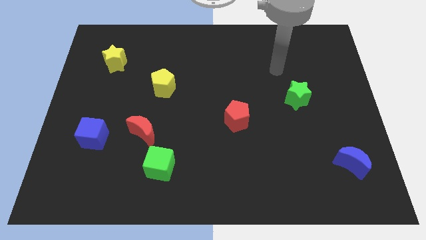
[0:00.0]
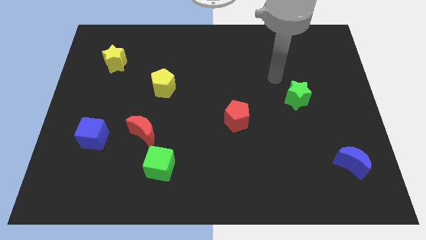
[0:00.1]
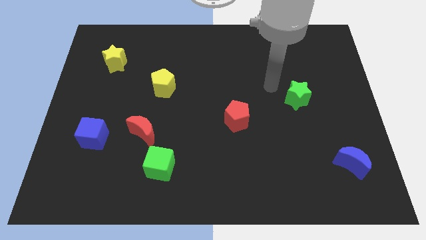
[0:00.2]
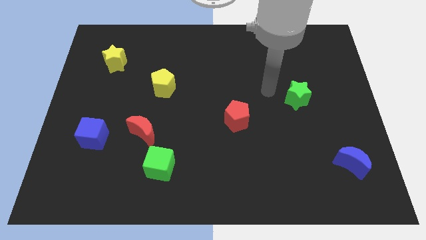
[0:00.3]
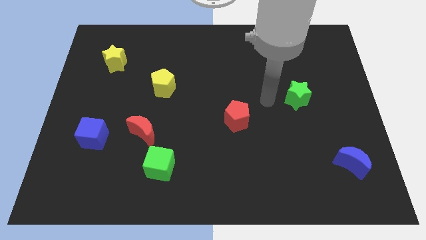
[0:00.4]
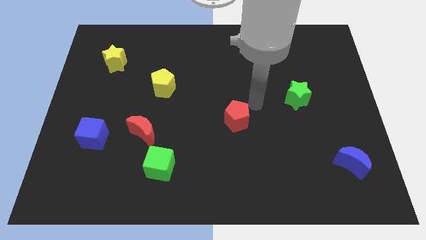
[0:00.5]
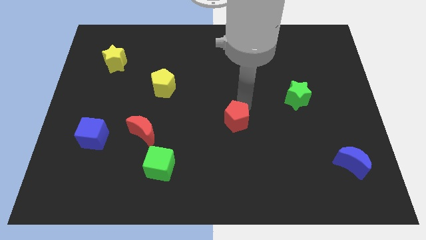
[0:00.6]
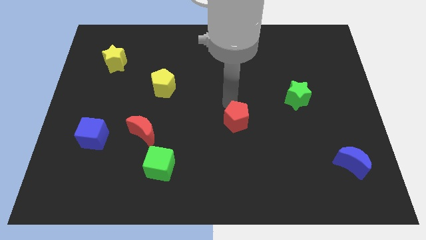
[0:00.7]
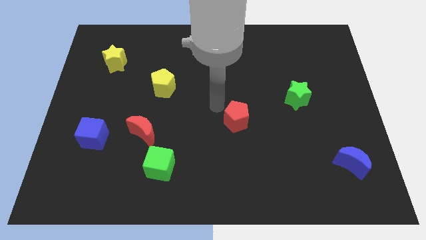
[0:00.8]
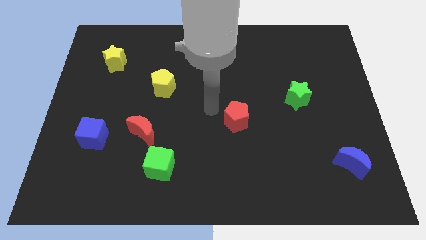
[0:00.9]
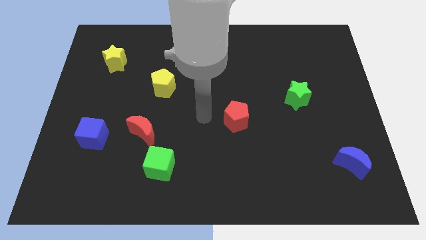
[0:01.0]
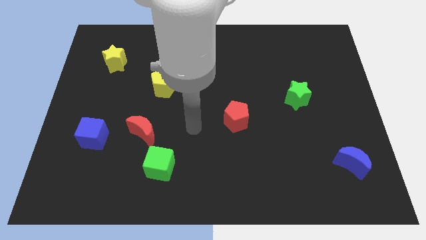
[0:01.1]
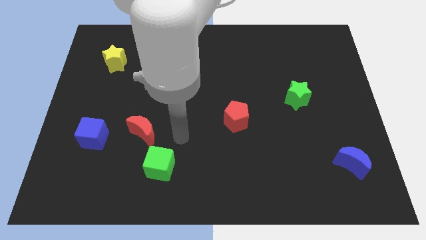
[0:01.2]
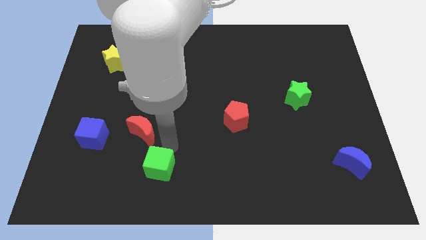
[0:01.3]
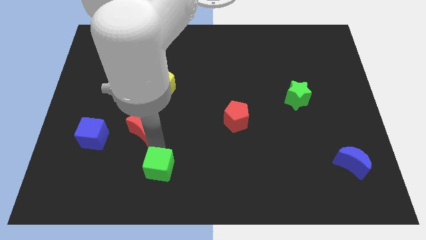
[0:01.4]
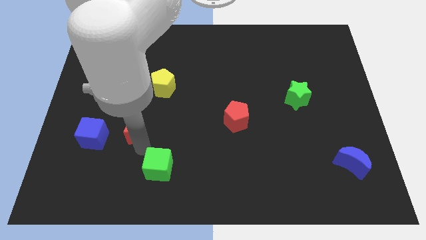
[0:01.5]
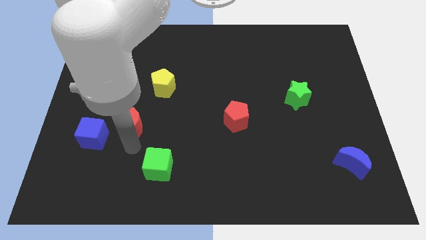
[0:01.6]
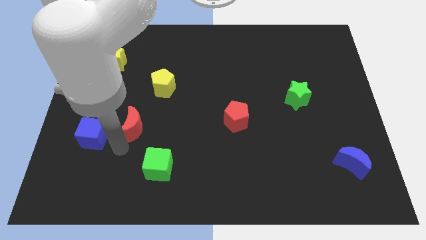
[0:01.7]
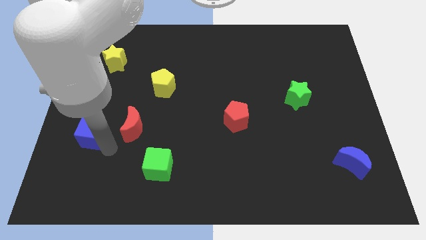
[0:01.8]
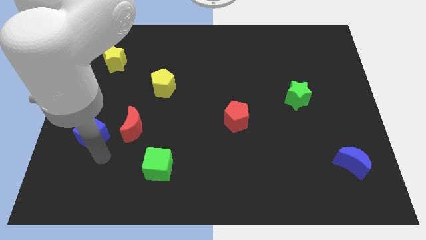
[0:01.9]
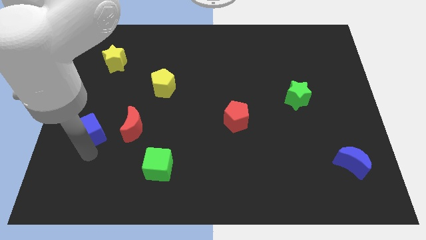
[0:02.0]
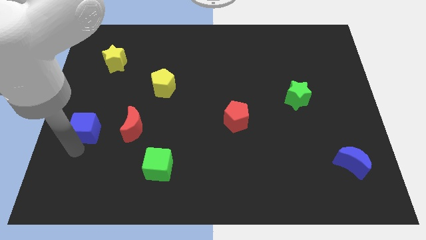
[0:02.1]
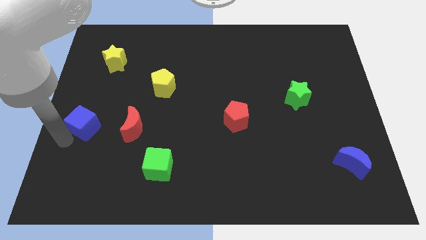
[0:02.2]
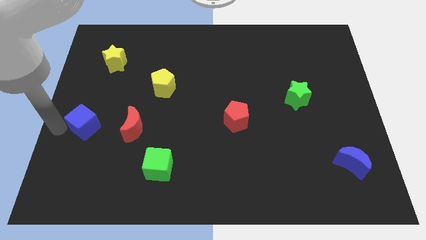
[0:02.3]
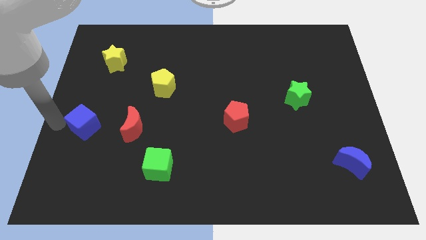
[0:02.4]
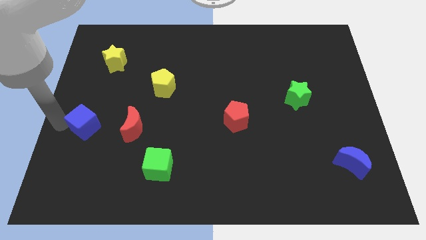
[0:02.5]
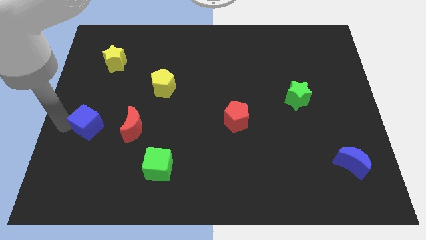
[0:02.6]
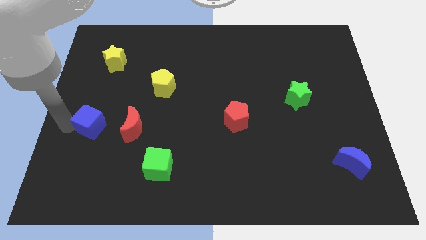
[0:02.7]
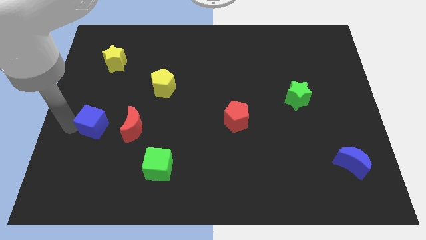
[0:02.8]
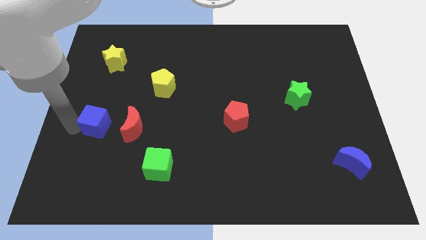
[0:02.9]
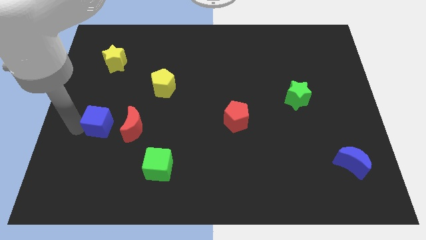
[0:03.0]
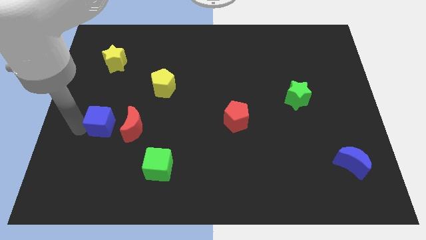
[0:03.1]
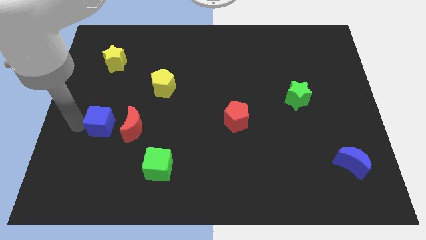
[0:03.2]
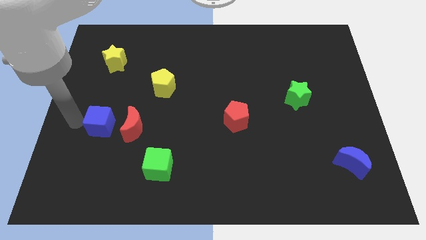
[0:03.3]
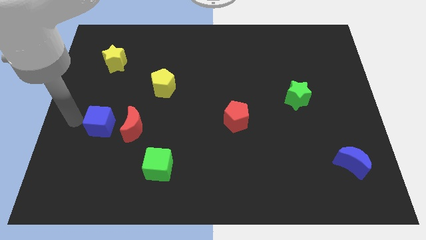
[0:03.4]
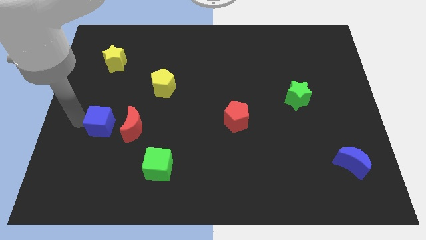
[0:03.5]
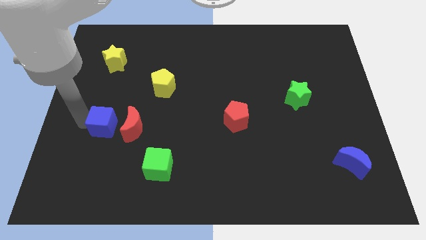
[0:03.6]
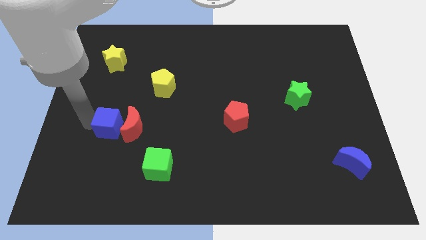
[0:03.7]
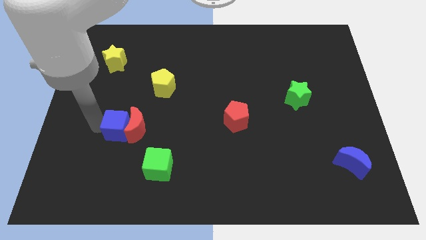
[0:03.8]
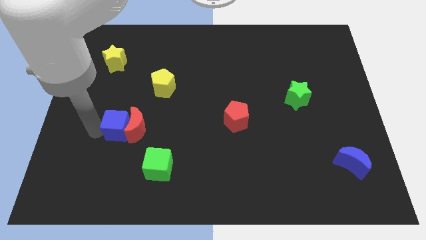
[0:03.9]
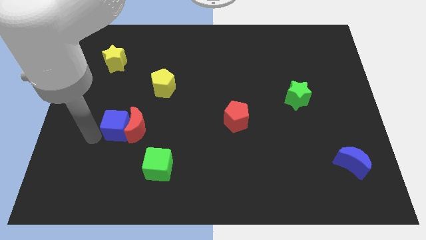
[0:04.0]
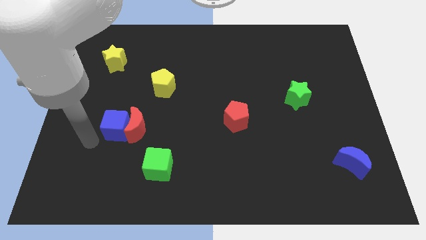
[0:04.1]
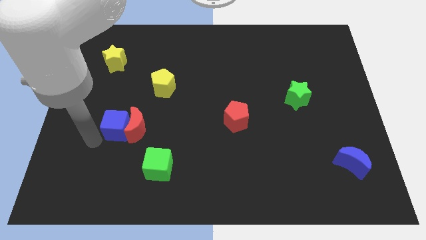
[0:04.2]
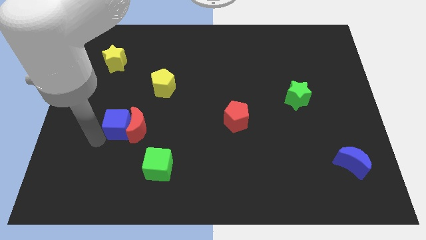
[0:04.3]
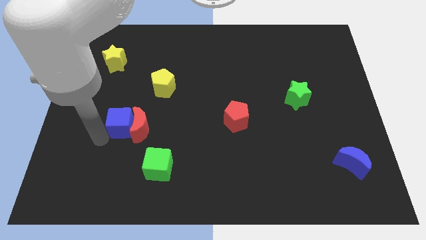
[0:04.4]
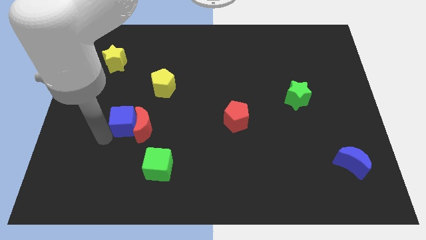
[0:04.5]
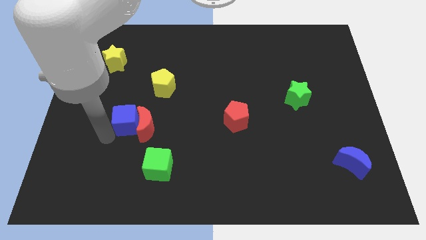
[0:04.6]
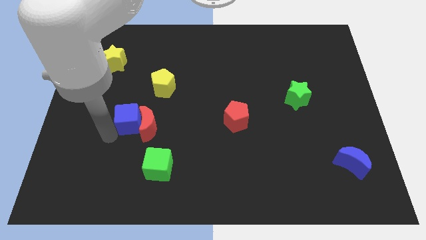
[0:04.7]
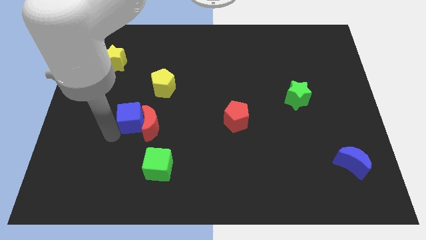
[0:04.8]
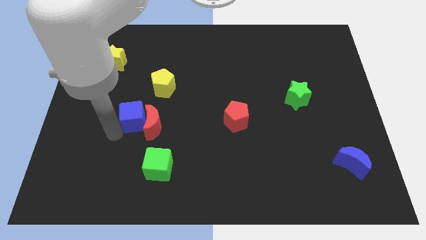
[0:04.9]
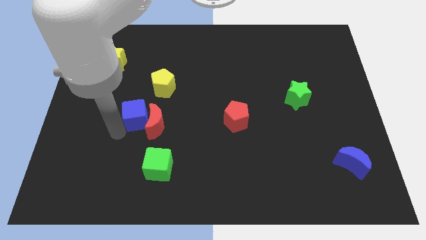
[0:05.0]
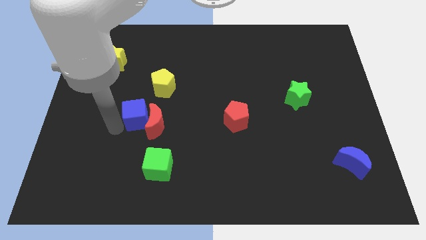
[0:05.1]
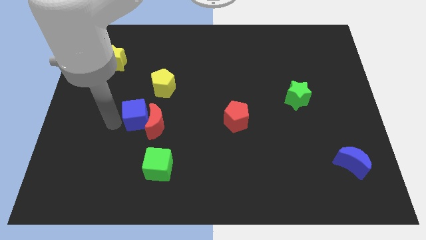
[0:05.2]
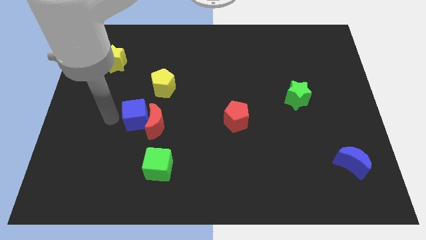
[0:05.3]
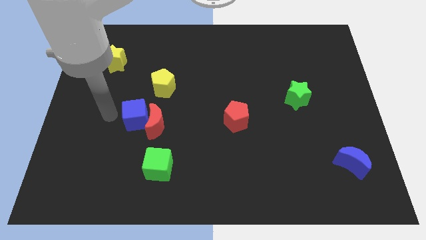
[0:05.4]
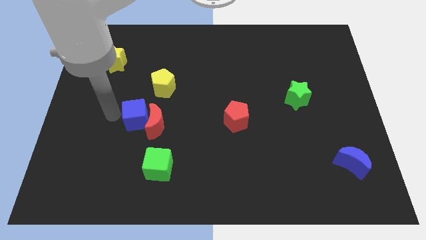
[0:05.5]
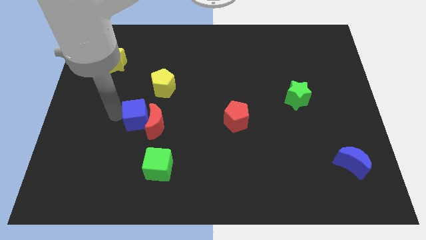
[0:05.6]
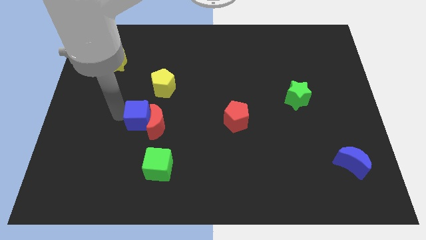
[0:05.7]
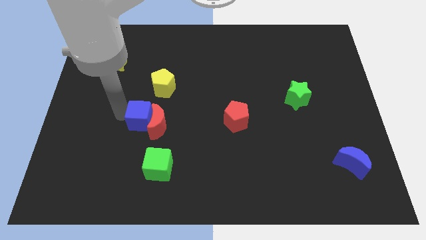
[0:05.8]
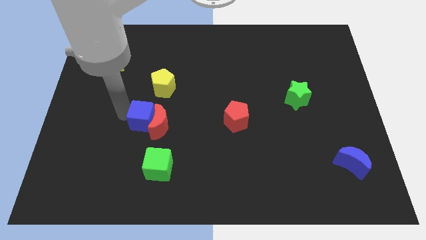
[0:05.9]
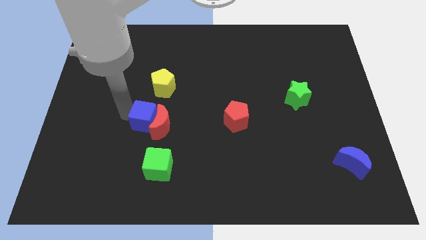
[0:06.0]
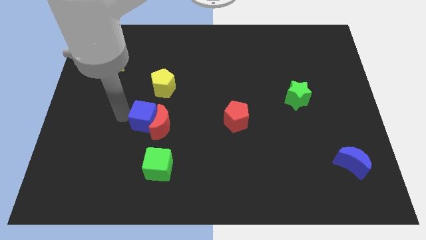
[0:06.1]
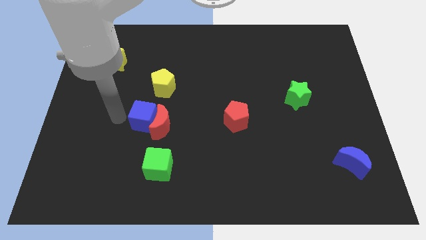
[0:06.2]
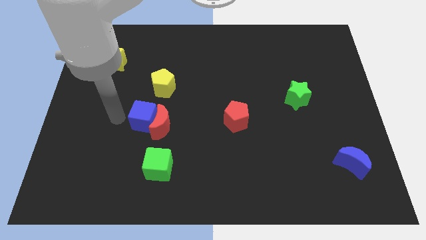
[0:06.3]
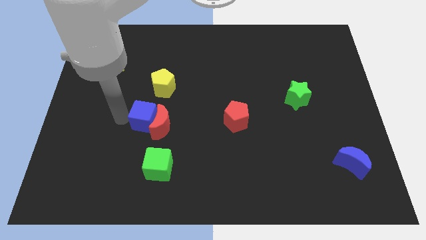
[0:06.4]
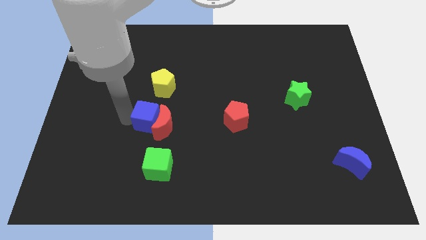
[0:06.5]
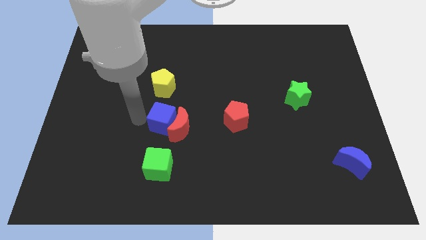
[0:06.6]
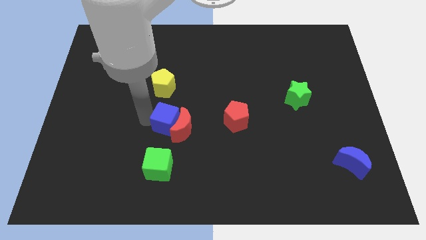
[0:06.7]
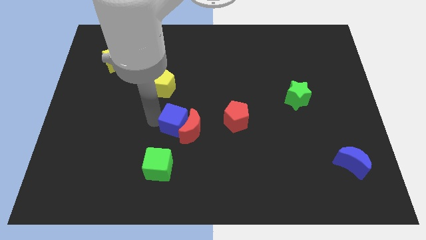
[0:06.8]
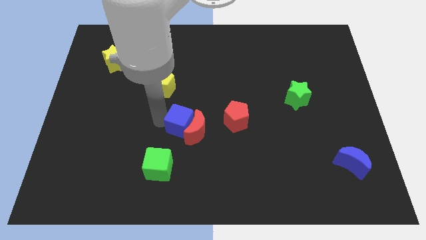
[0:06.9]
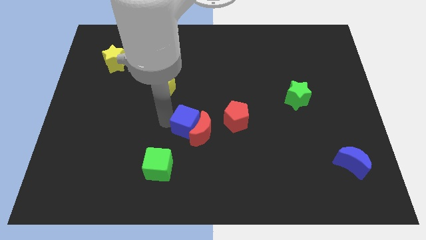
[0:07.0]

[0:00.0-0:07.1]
move the blue cube to the right

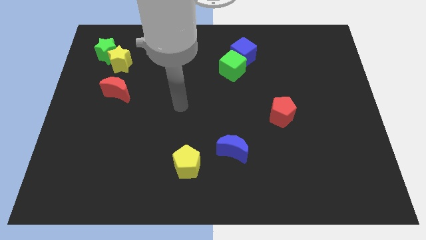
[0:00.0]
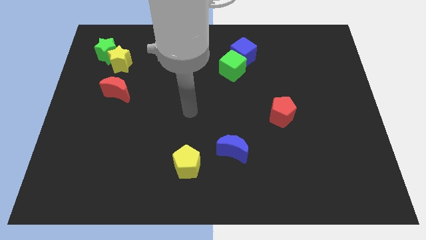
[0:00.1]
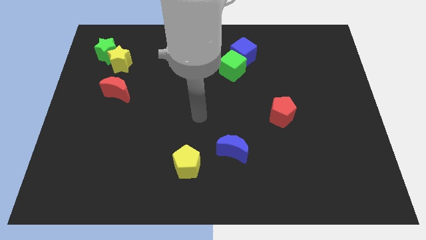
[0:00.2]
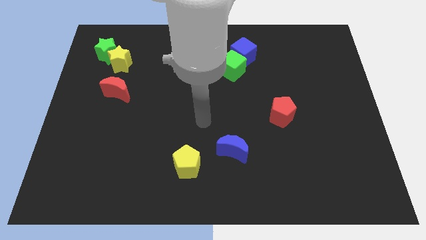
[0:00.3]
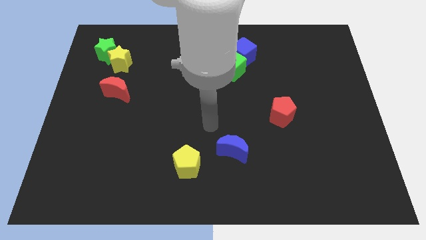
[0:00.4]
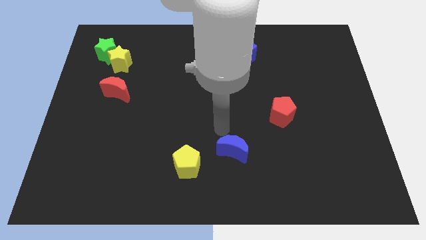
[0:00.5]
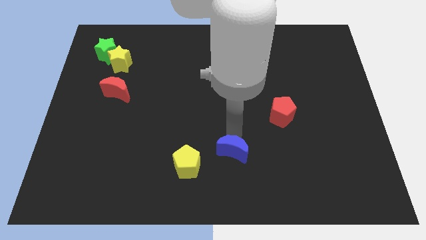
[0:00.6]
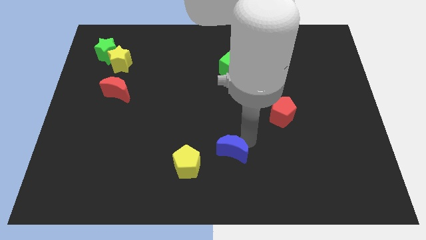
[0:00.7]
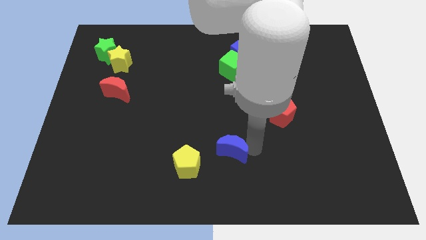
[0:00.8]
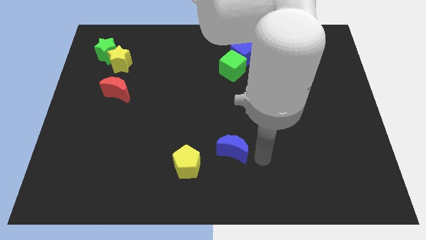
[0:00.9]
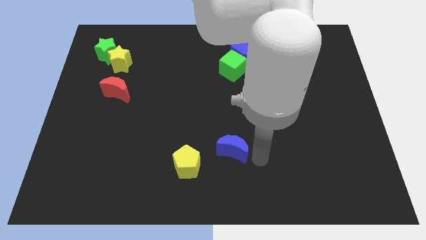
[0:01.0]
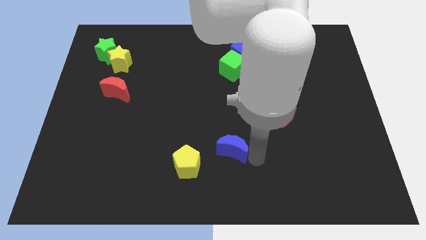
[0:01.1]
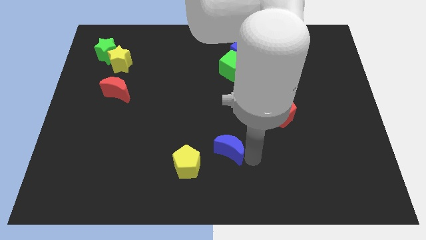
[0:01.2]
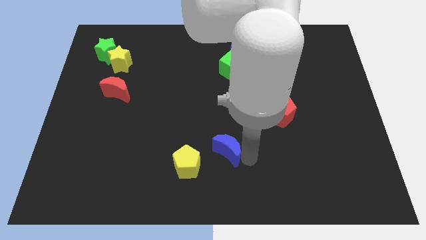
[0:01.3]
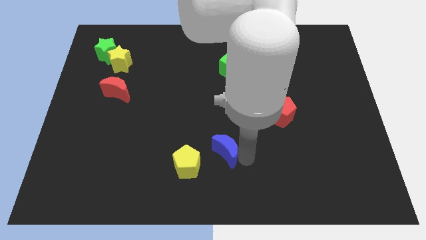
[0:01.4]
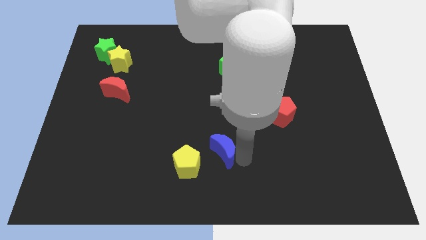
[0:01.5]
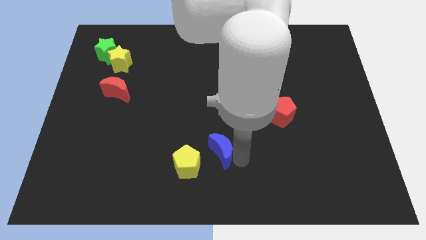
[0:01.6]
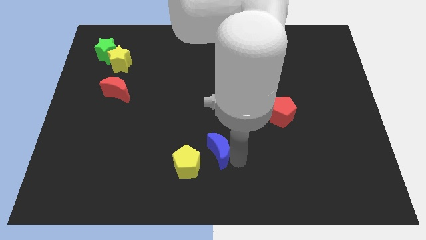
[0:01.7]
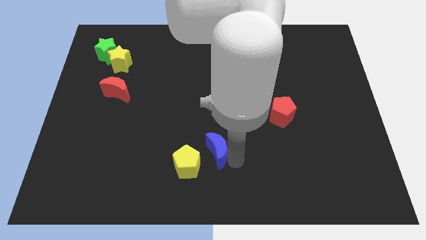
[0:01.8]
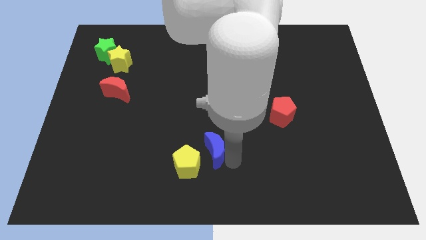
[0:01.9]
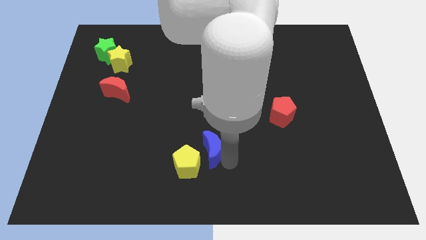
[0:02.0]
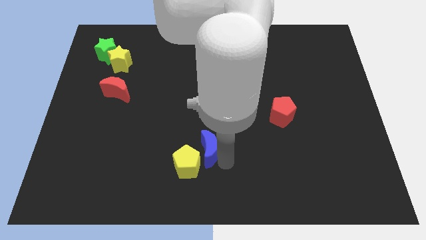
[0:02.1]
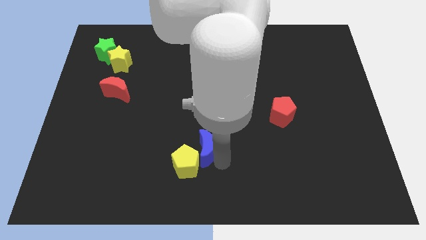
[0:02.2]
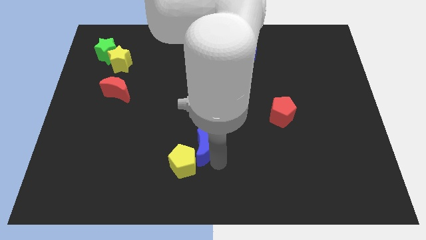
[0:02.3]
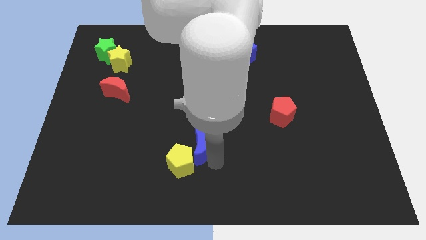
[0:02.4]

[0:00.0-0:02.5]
slide the blue moon a little to the left
